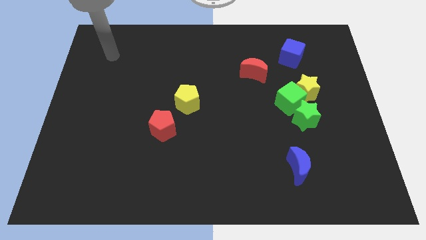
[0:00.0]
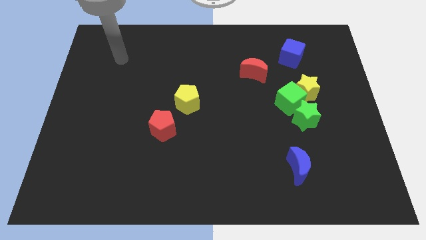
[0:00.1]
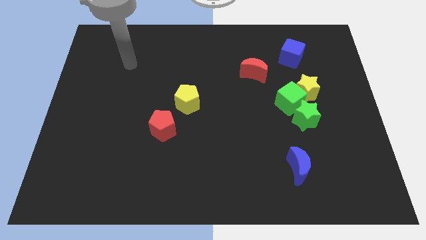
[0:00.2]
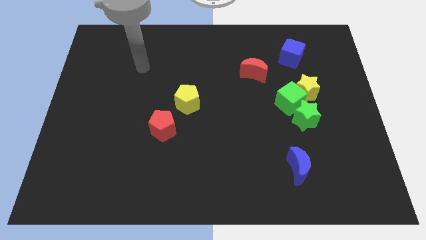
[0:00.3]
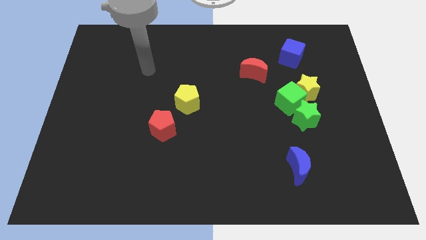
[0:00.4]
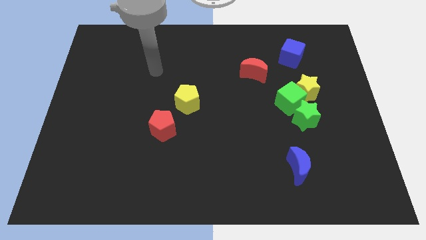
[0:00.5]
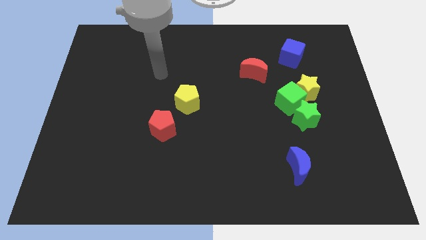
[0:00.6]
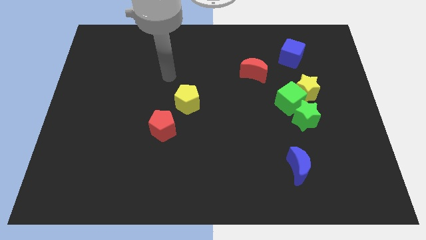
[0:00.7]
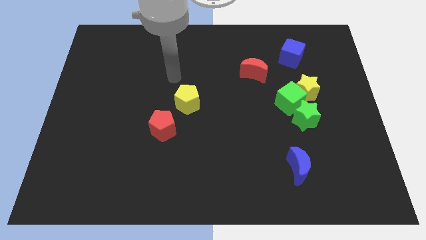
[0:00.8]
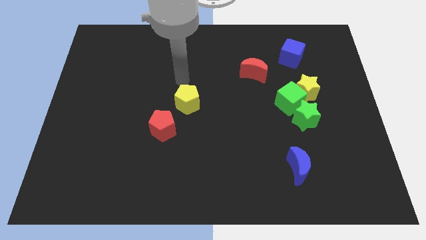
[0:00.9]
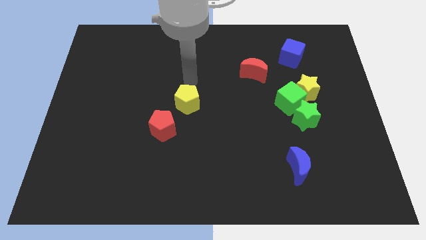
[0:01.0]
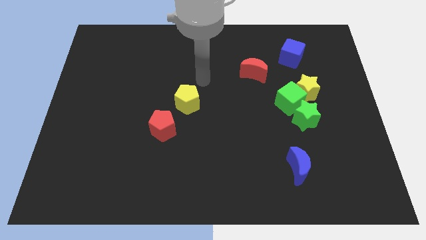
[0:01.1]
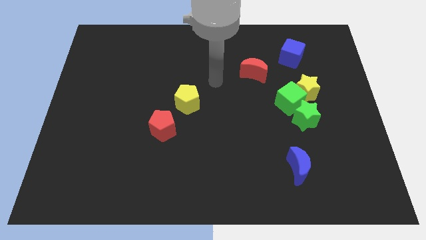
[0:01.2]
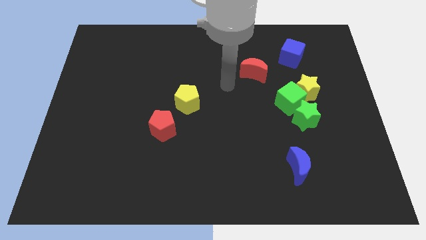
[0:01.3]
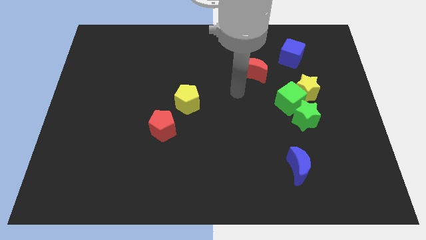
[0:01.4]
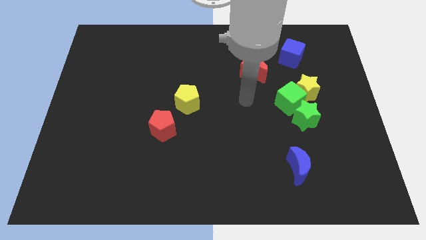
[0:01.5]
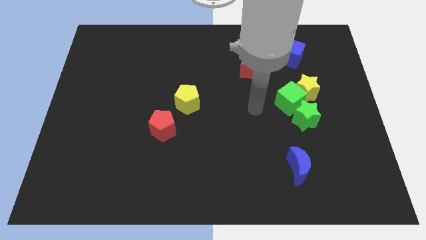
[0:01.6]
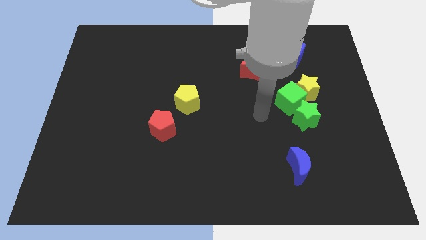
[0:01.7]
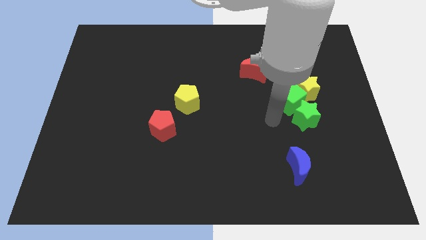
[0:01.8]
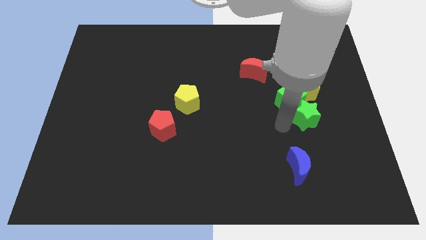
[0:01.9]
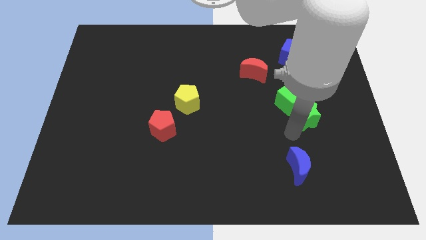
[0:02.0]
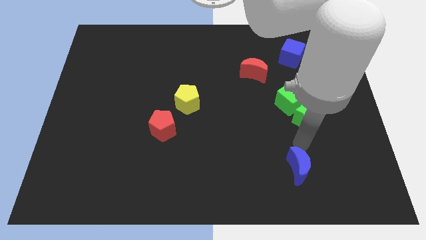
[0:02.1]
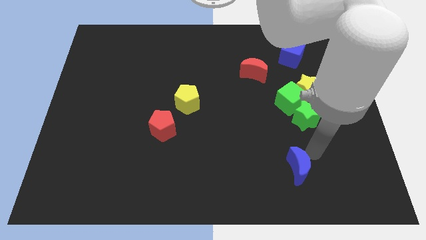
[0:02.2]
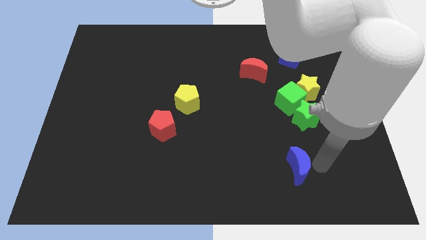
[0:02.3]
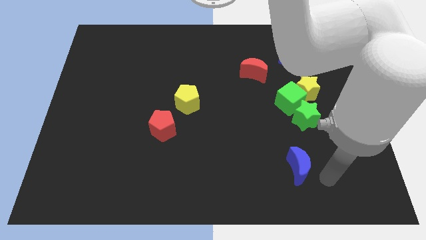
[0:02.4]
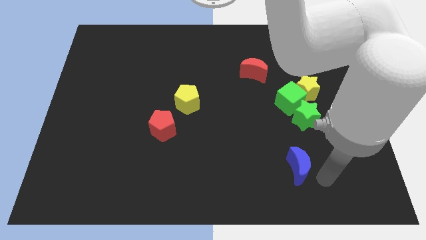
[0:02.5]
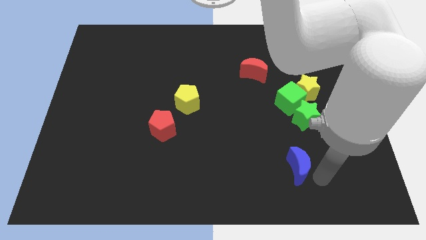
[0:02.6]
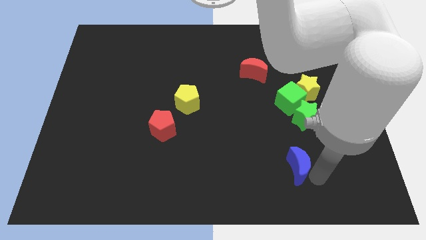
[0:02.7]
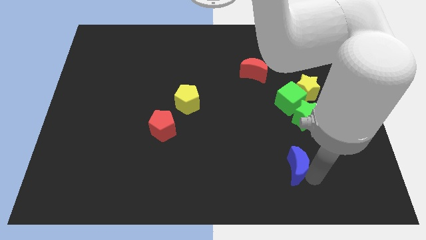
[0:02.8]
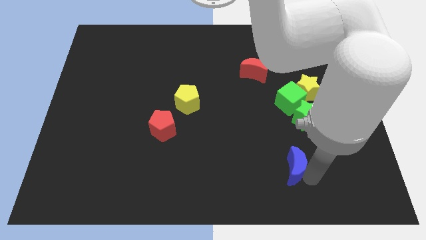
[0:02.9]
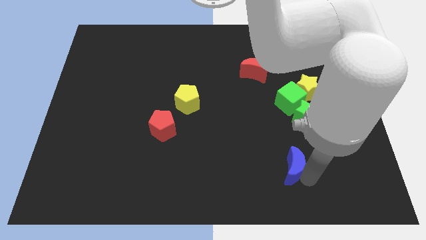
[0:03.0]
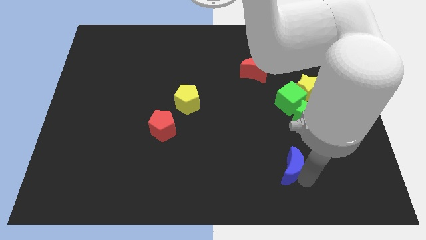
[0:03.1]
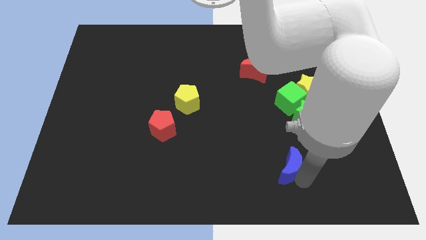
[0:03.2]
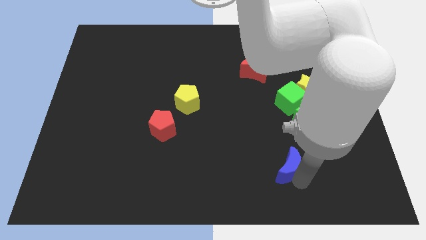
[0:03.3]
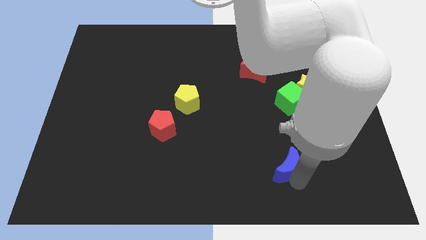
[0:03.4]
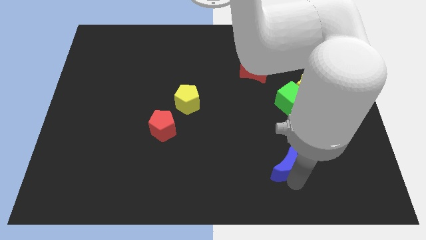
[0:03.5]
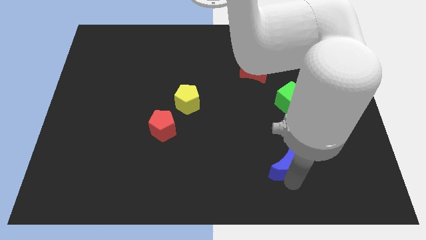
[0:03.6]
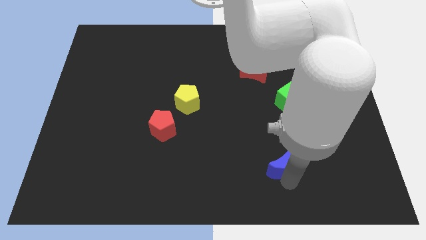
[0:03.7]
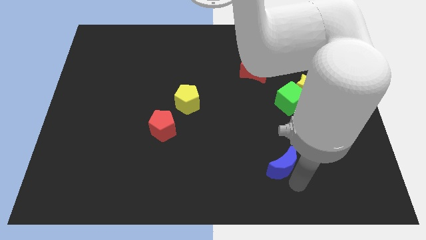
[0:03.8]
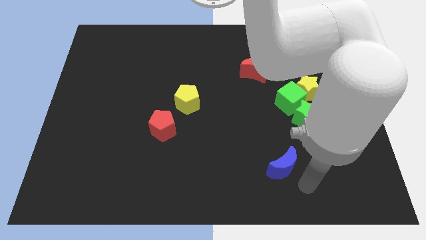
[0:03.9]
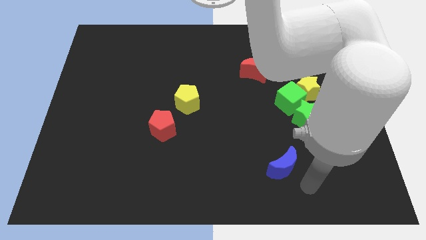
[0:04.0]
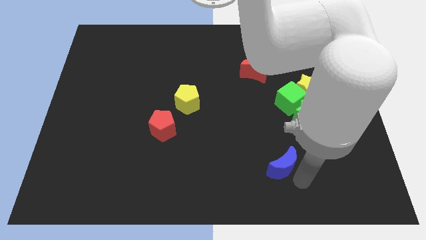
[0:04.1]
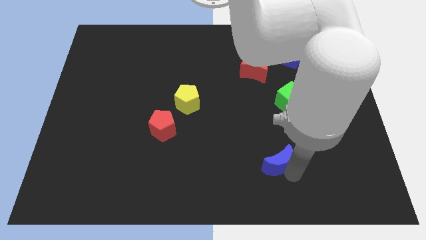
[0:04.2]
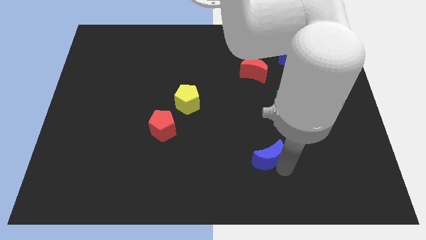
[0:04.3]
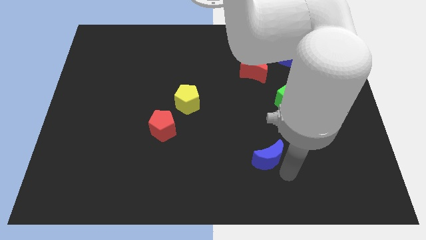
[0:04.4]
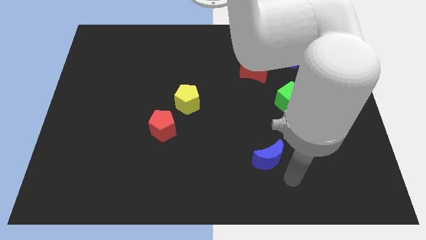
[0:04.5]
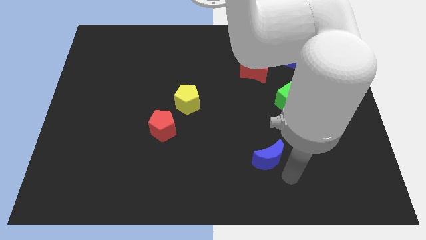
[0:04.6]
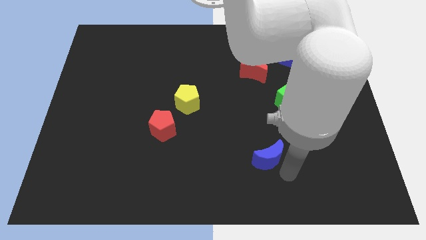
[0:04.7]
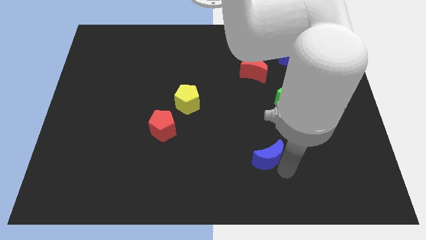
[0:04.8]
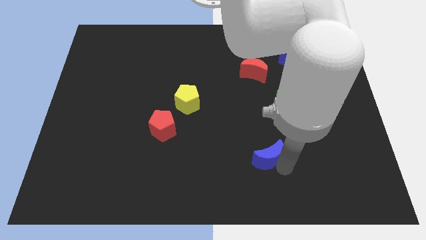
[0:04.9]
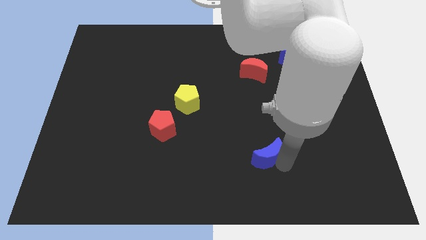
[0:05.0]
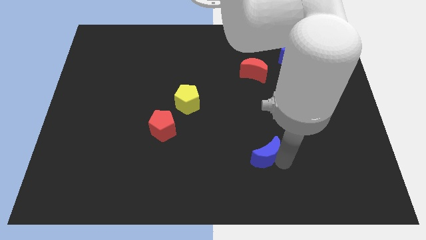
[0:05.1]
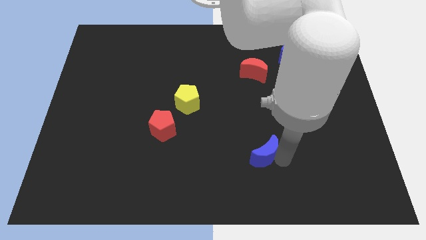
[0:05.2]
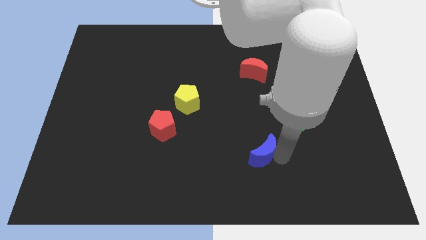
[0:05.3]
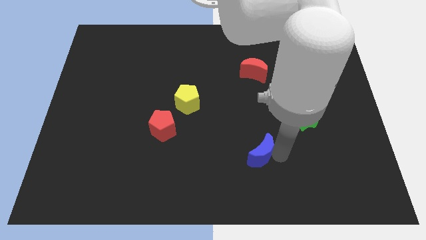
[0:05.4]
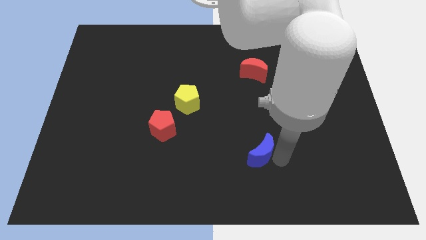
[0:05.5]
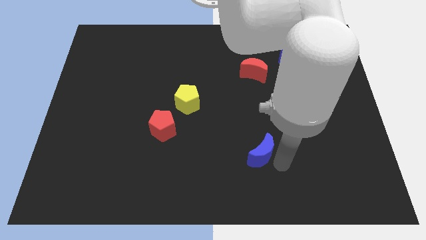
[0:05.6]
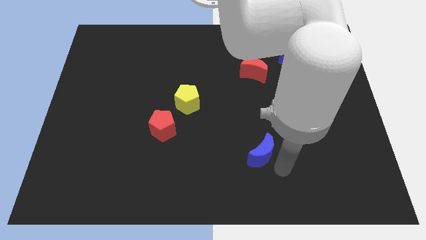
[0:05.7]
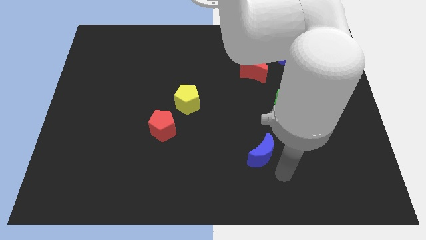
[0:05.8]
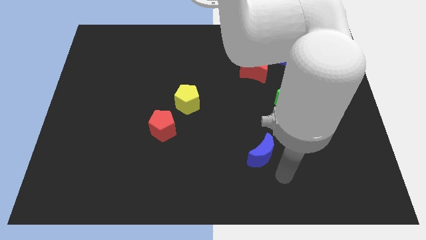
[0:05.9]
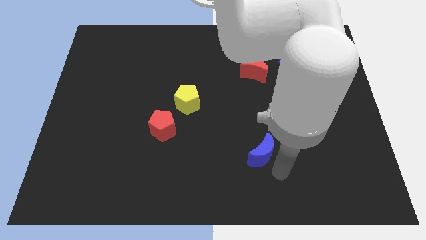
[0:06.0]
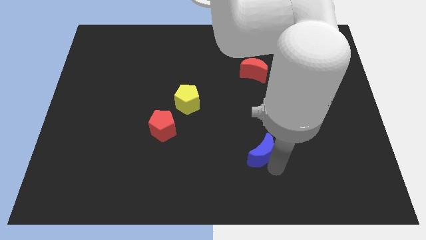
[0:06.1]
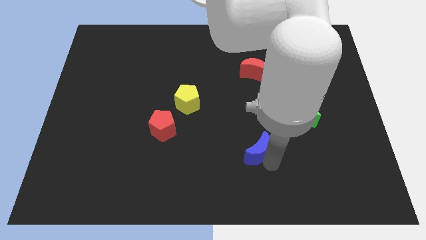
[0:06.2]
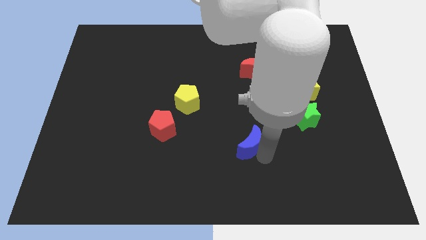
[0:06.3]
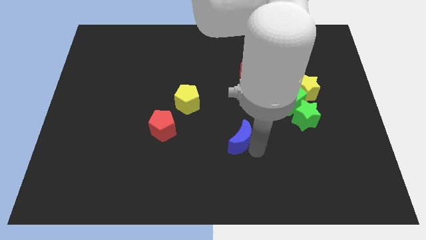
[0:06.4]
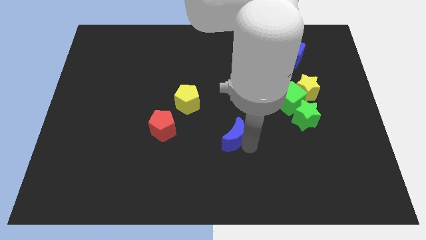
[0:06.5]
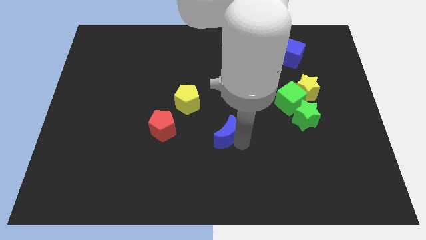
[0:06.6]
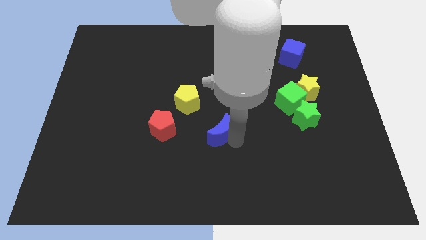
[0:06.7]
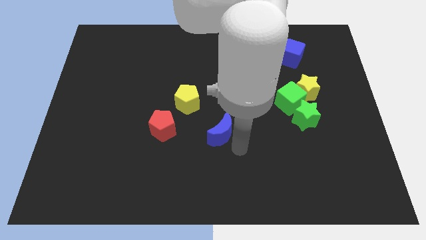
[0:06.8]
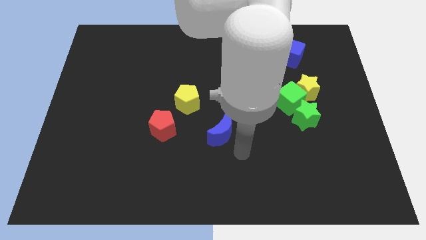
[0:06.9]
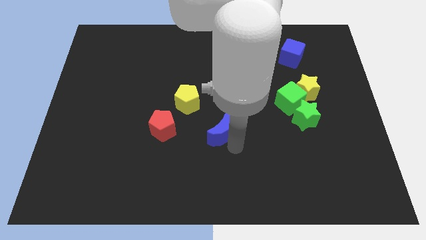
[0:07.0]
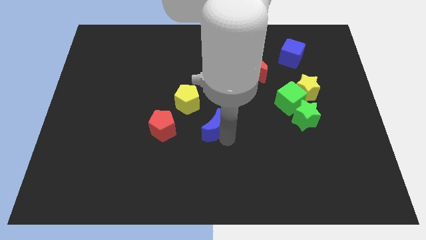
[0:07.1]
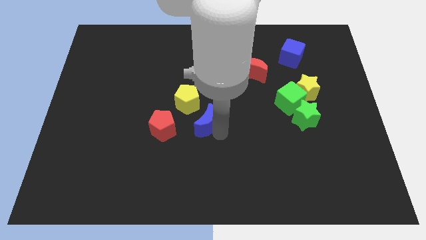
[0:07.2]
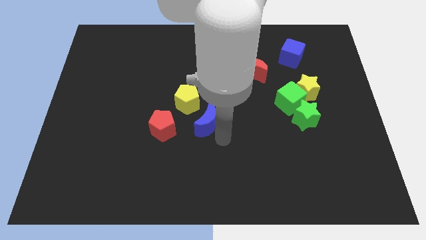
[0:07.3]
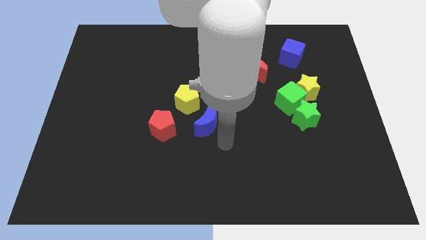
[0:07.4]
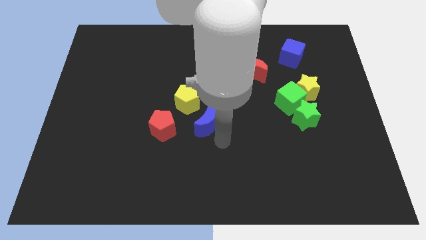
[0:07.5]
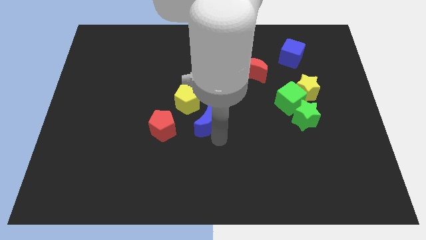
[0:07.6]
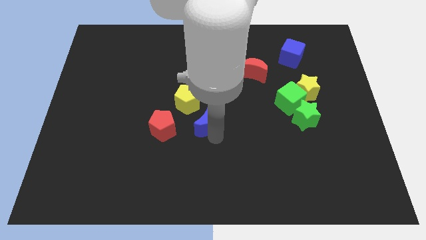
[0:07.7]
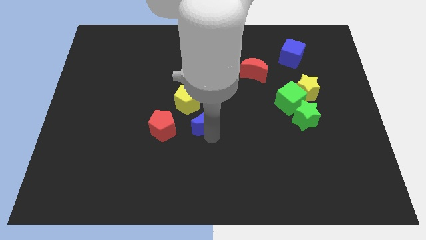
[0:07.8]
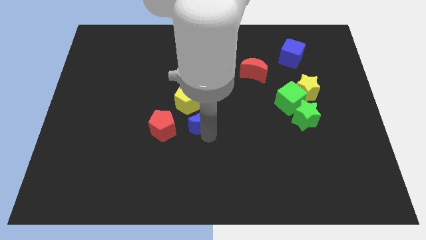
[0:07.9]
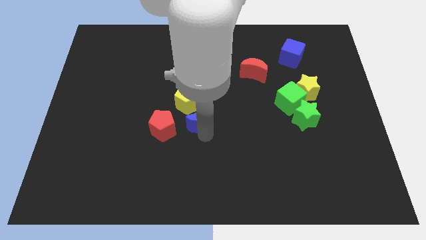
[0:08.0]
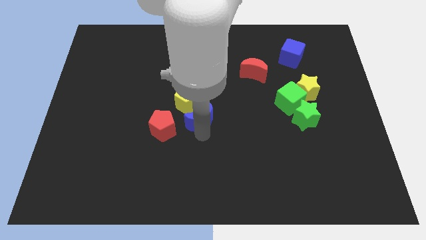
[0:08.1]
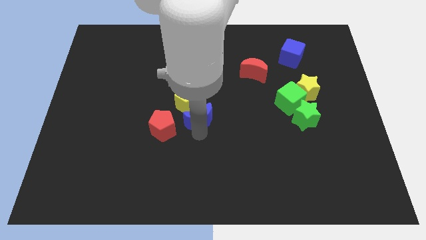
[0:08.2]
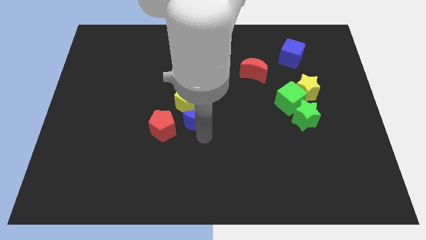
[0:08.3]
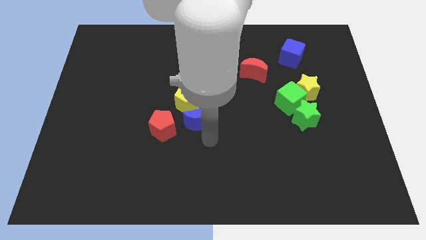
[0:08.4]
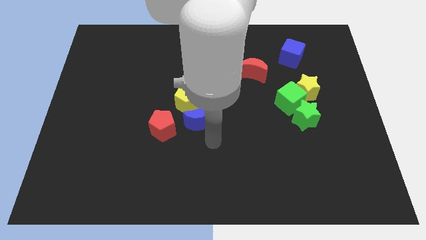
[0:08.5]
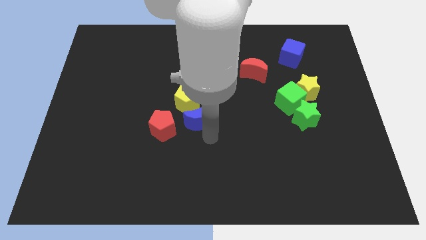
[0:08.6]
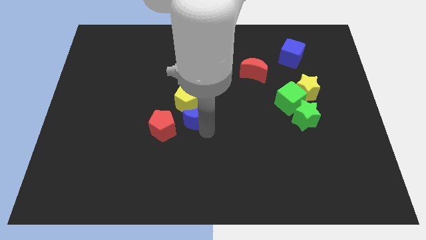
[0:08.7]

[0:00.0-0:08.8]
slide the blue moon to the yellow pentagon
